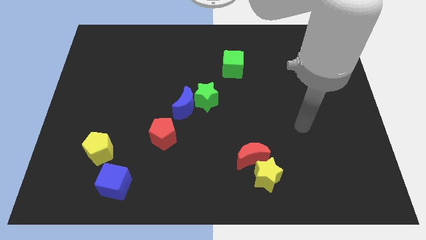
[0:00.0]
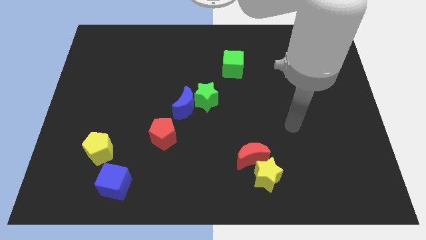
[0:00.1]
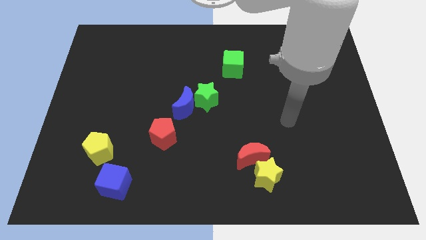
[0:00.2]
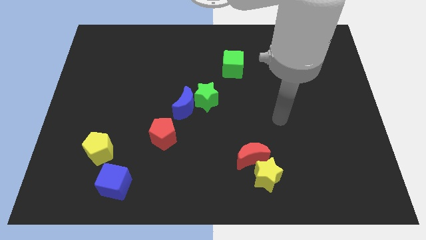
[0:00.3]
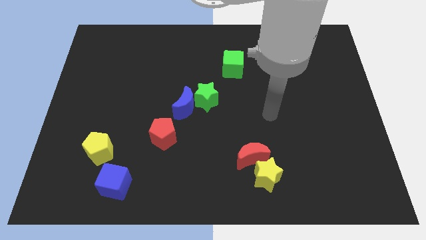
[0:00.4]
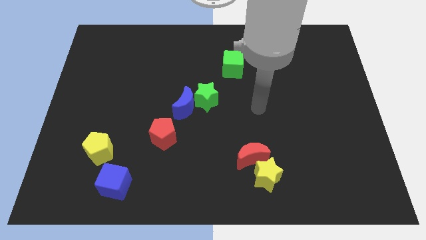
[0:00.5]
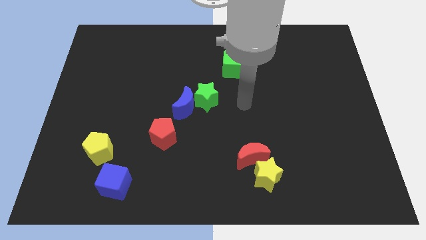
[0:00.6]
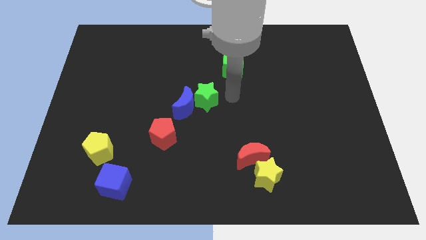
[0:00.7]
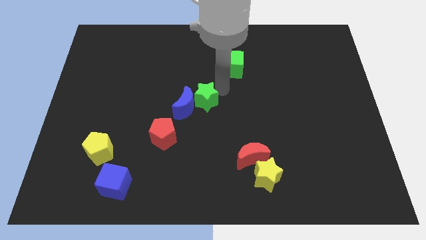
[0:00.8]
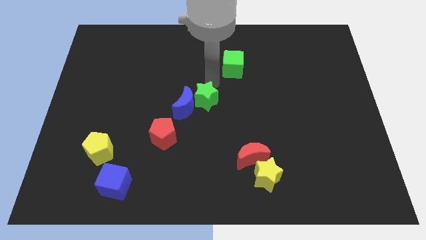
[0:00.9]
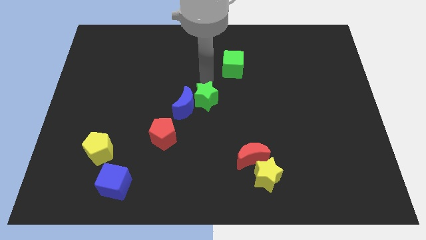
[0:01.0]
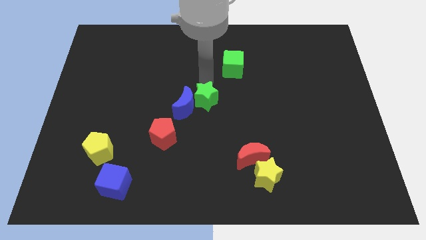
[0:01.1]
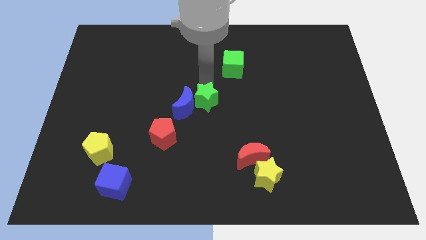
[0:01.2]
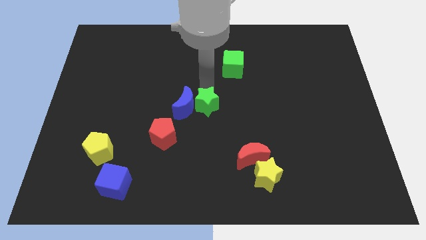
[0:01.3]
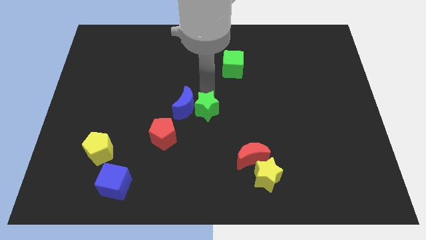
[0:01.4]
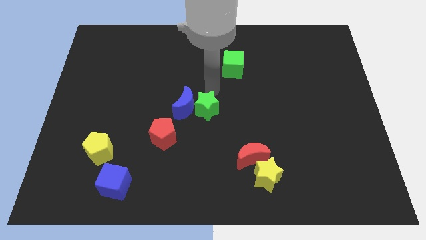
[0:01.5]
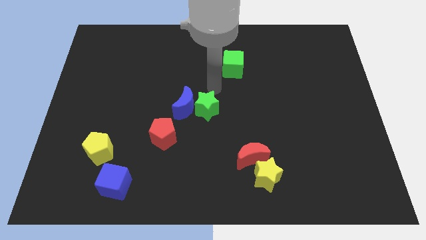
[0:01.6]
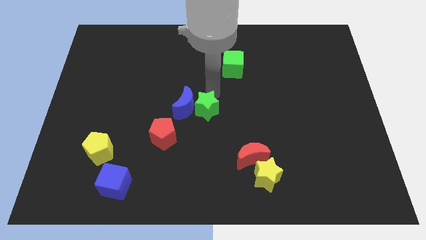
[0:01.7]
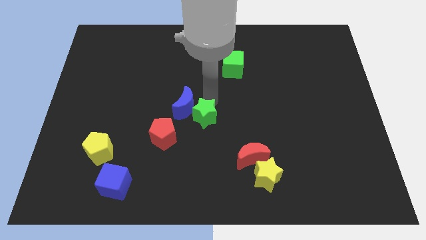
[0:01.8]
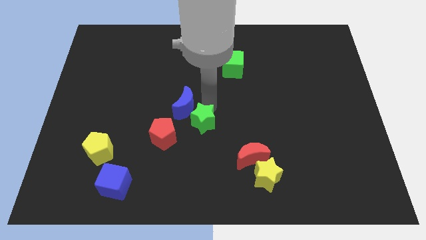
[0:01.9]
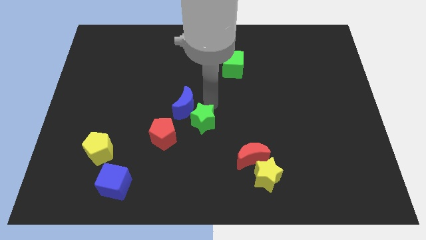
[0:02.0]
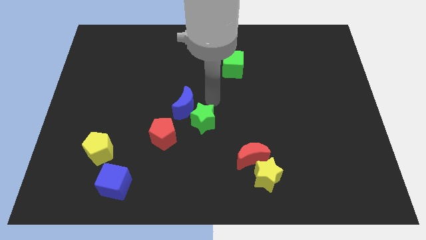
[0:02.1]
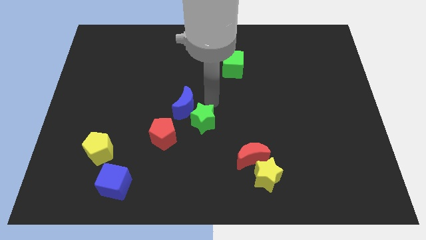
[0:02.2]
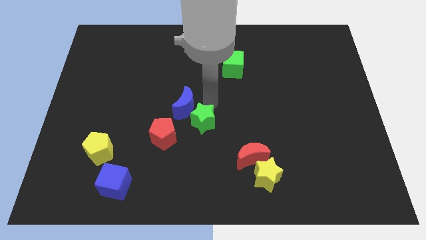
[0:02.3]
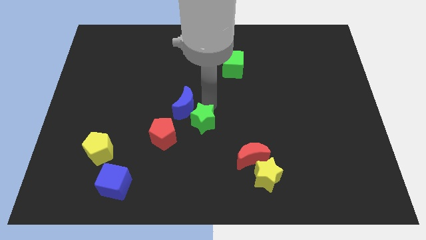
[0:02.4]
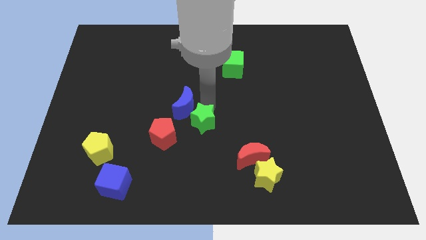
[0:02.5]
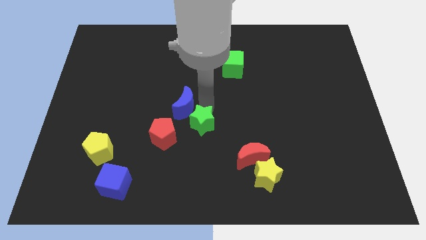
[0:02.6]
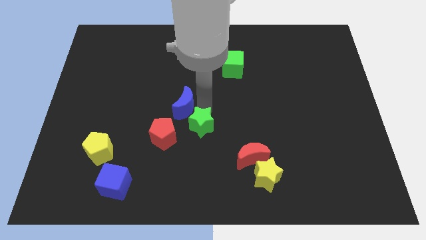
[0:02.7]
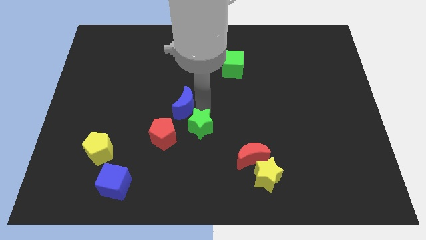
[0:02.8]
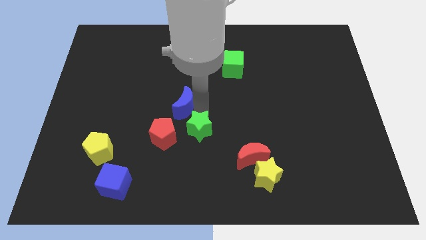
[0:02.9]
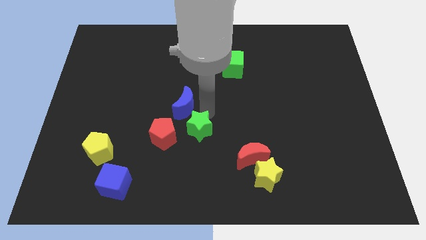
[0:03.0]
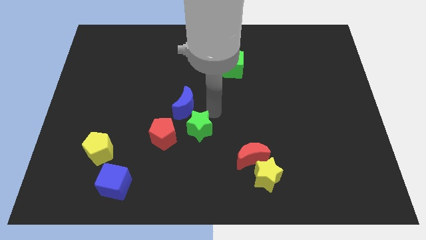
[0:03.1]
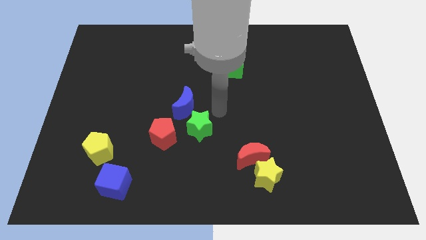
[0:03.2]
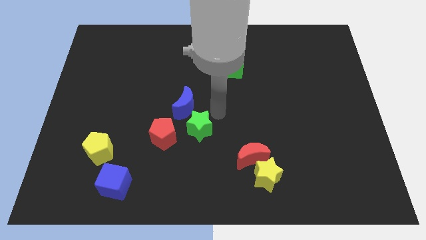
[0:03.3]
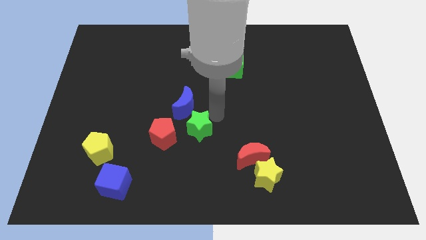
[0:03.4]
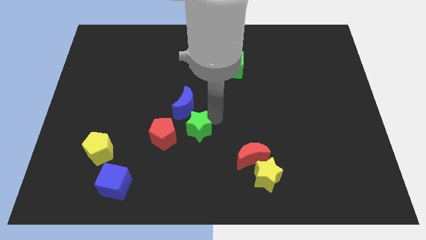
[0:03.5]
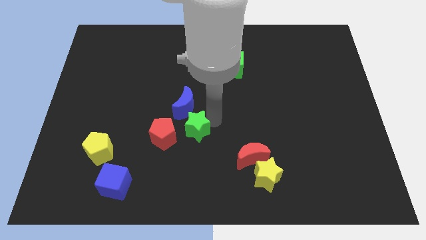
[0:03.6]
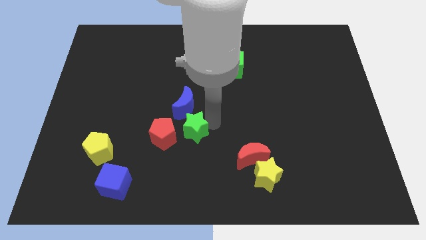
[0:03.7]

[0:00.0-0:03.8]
push the green star downwards and then left a little bit

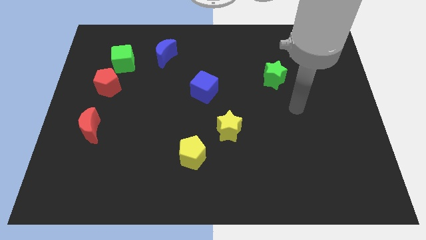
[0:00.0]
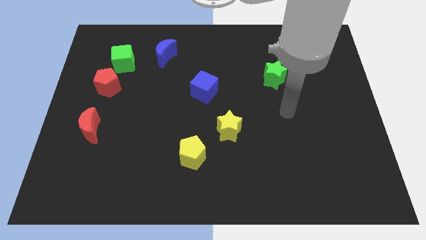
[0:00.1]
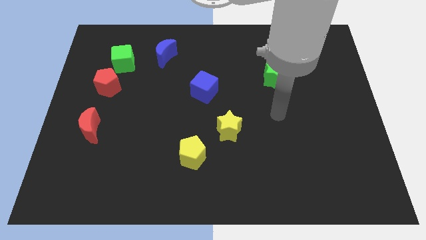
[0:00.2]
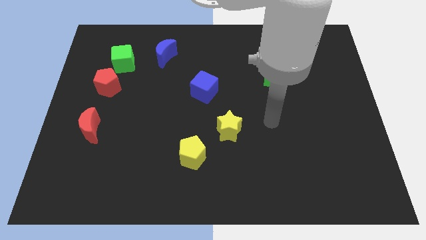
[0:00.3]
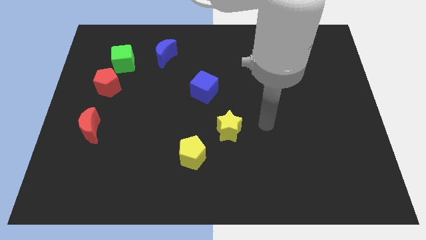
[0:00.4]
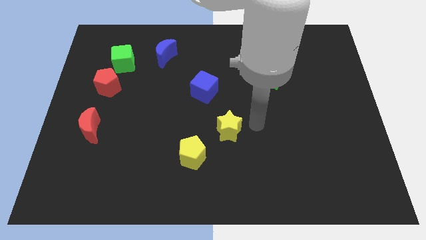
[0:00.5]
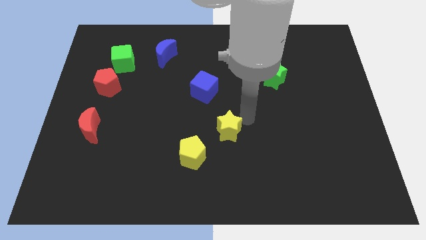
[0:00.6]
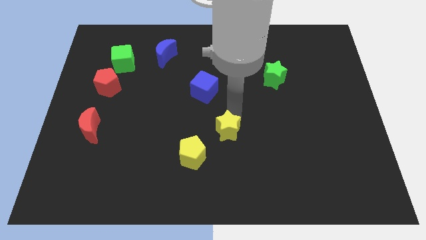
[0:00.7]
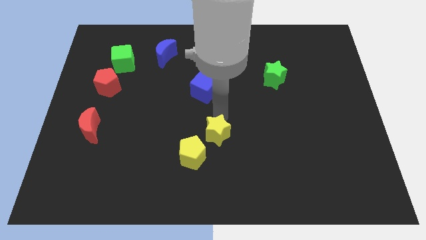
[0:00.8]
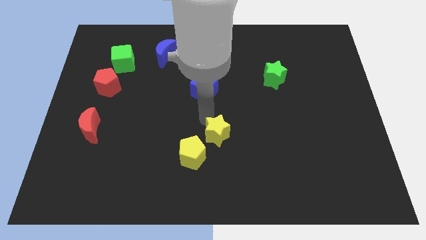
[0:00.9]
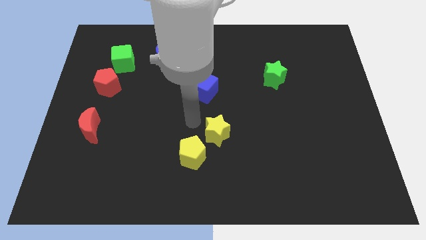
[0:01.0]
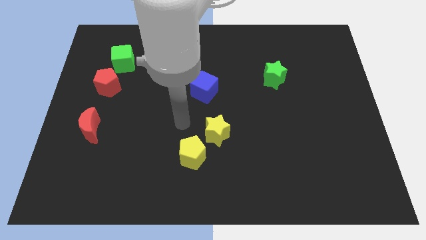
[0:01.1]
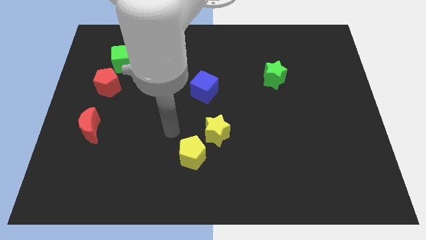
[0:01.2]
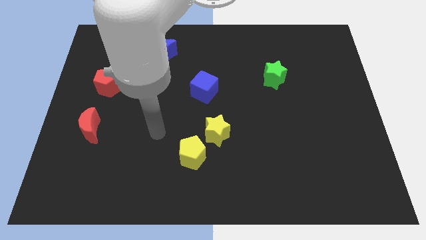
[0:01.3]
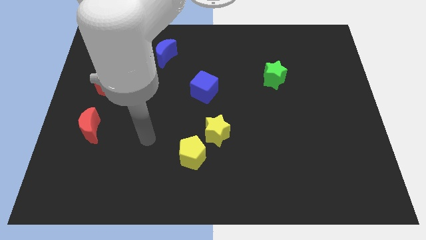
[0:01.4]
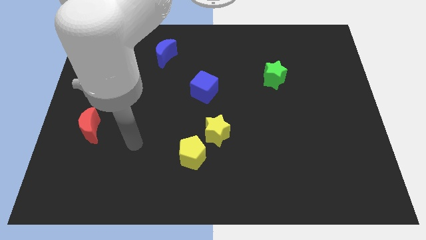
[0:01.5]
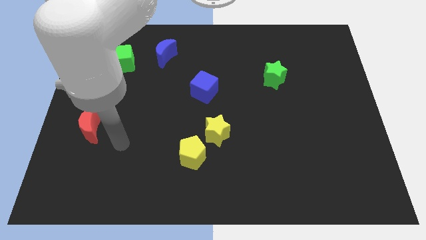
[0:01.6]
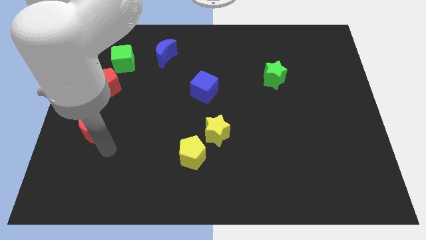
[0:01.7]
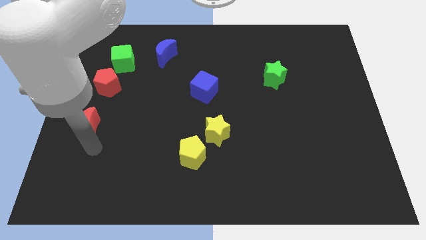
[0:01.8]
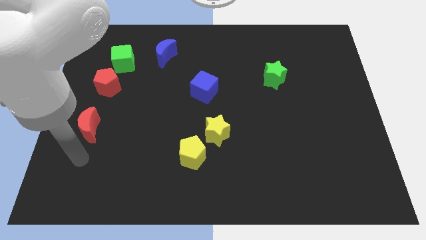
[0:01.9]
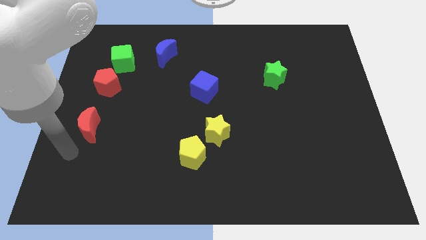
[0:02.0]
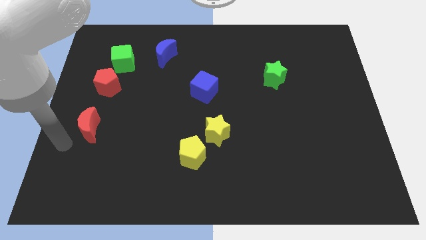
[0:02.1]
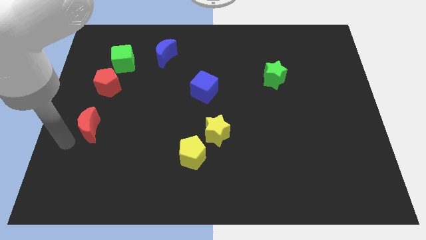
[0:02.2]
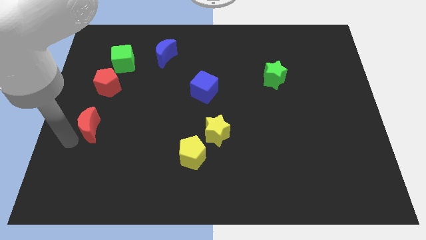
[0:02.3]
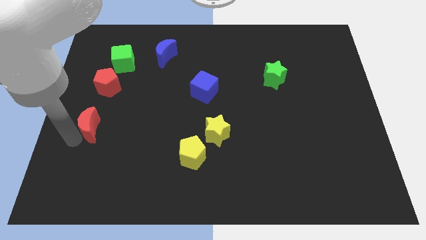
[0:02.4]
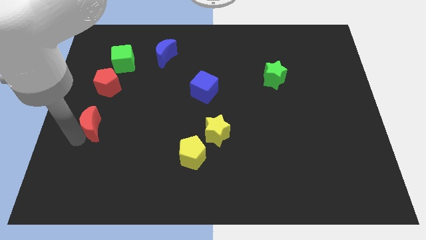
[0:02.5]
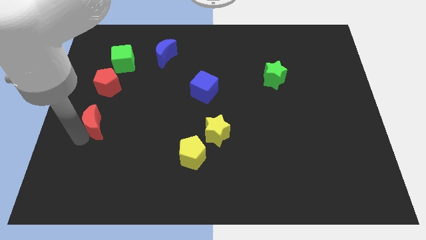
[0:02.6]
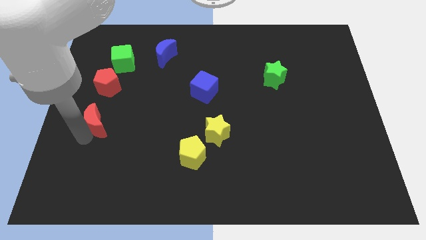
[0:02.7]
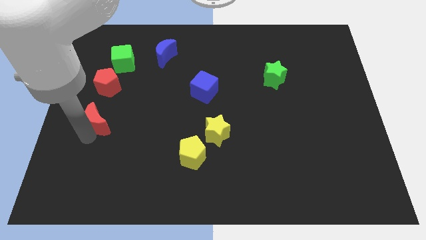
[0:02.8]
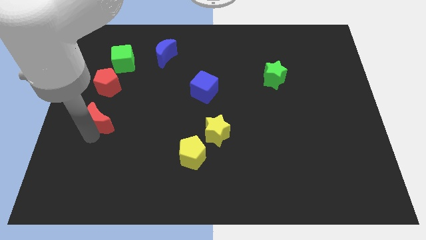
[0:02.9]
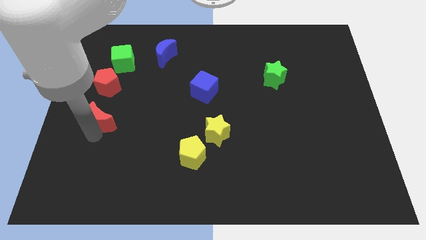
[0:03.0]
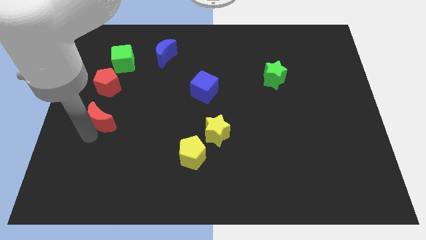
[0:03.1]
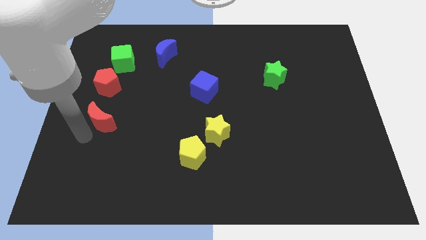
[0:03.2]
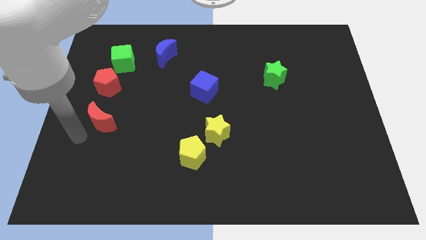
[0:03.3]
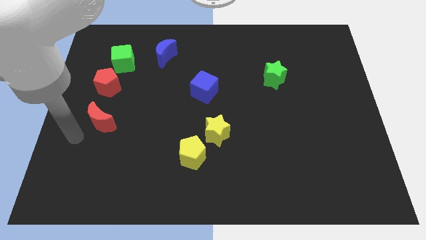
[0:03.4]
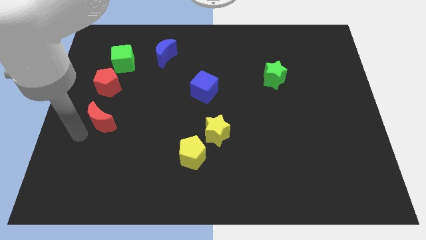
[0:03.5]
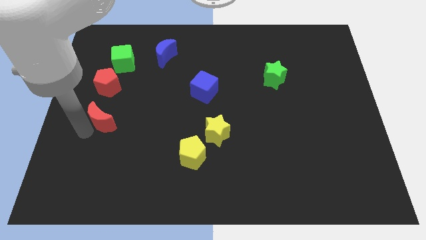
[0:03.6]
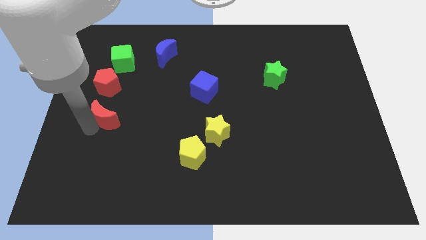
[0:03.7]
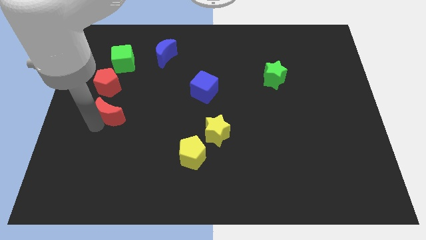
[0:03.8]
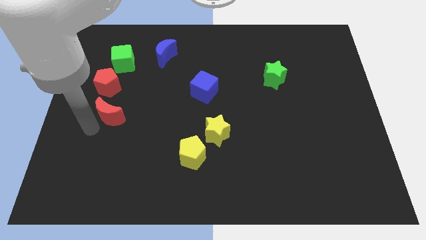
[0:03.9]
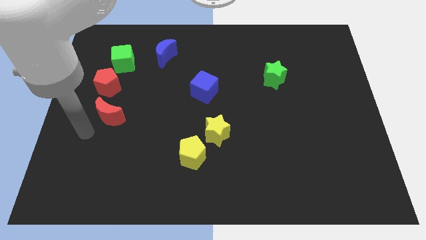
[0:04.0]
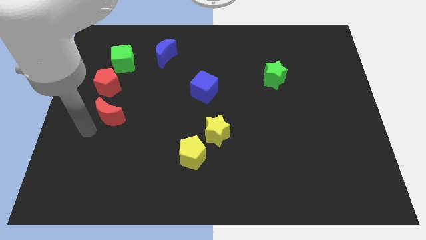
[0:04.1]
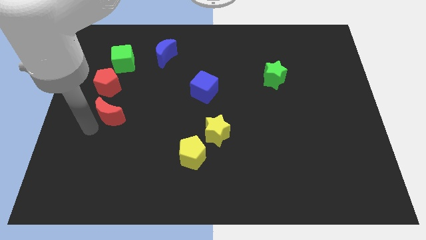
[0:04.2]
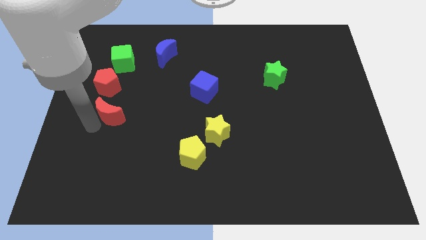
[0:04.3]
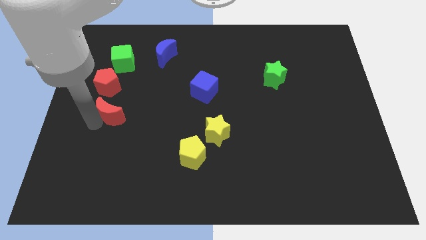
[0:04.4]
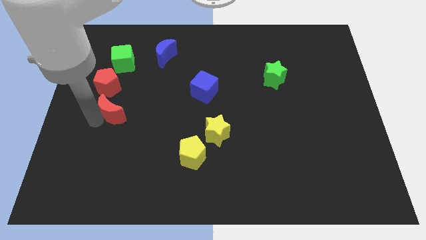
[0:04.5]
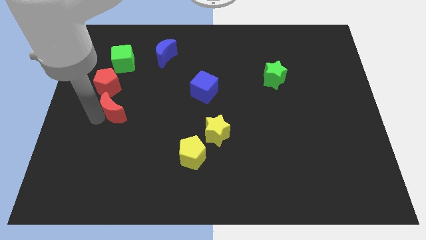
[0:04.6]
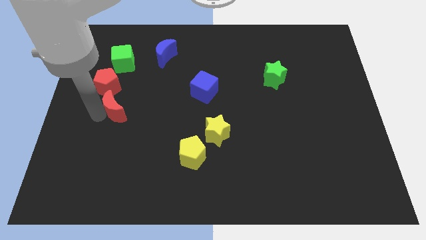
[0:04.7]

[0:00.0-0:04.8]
push the red moon diagonally upwards and to the right a little
